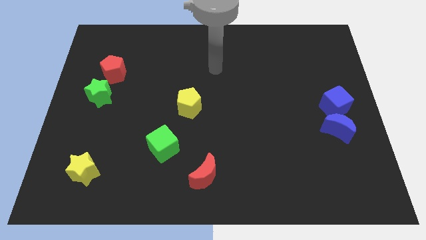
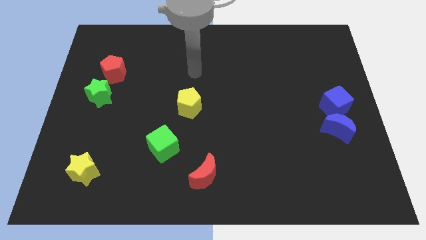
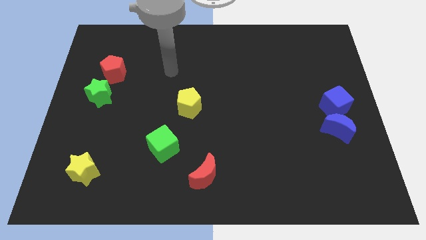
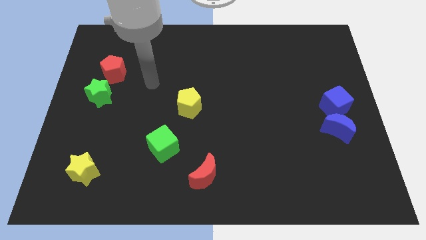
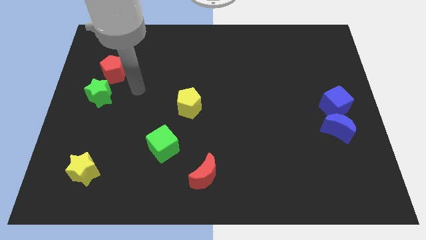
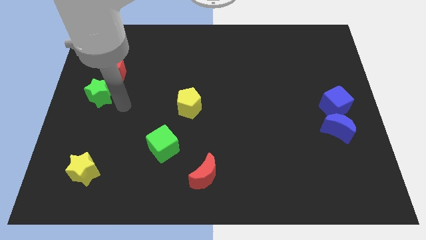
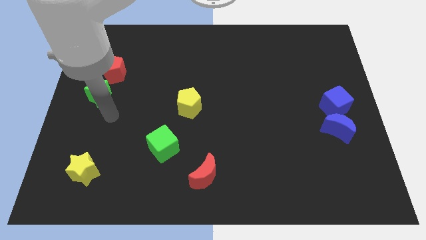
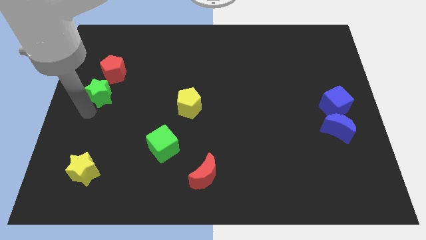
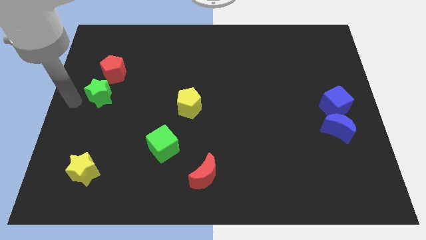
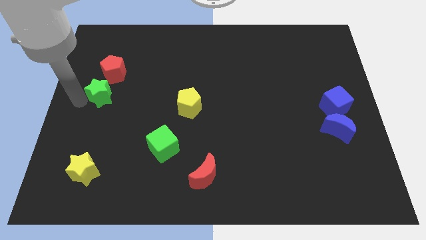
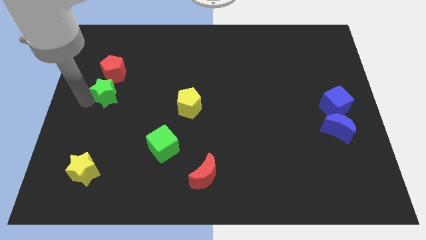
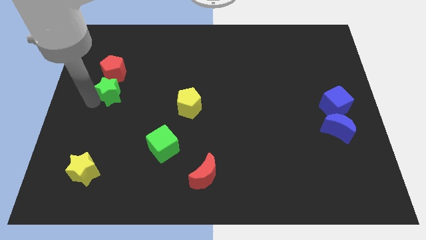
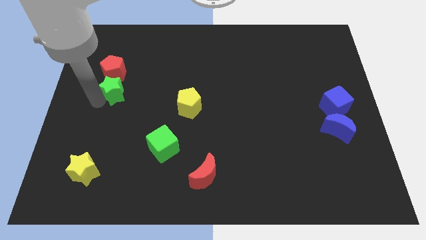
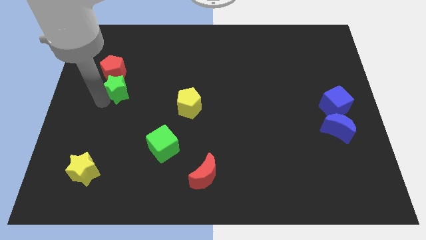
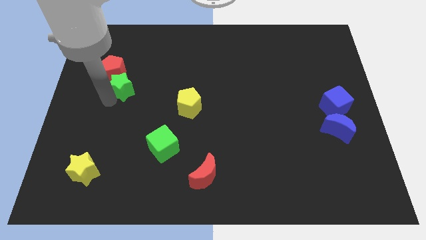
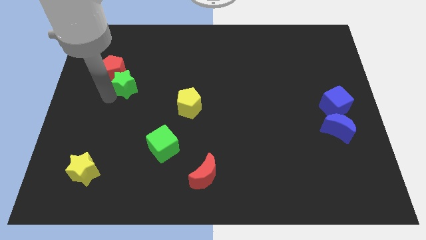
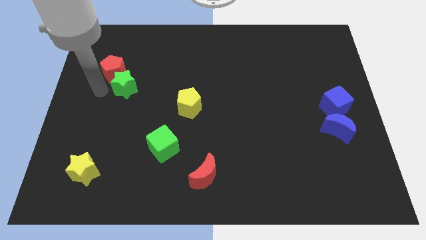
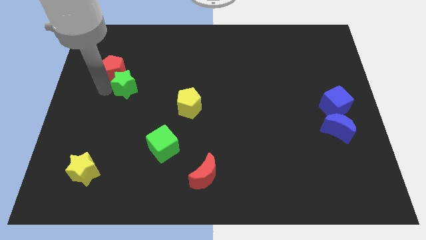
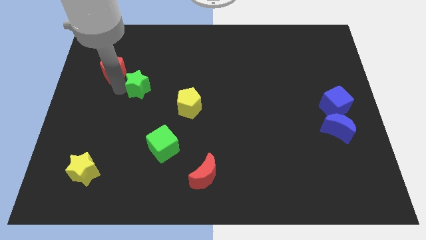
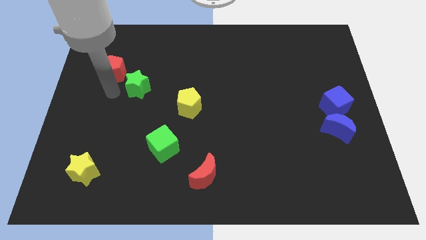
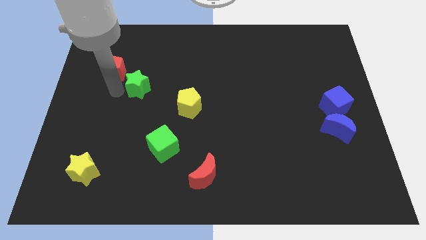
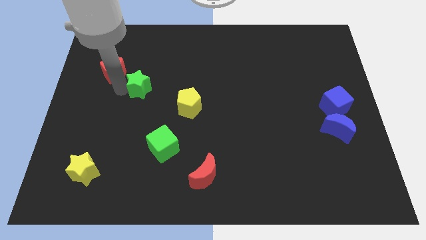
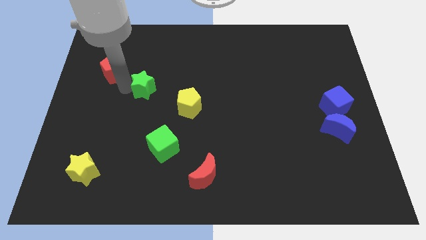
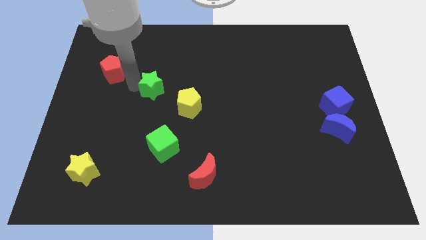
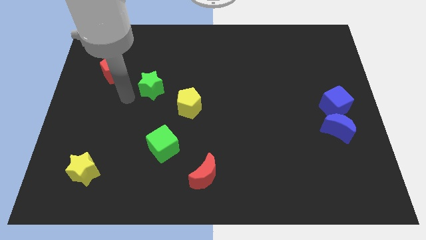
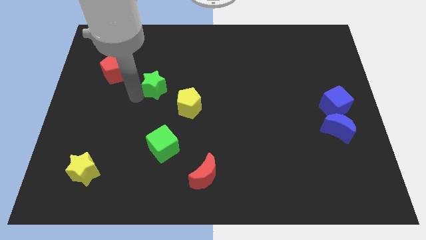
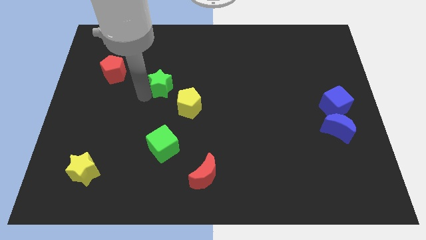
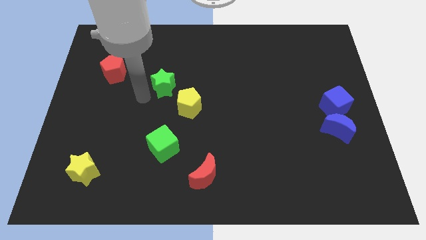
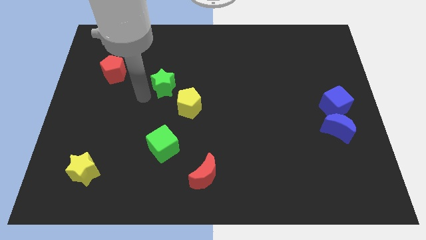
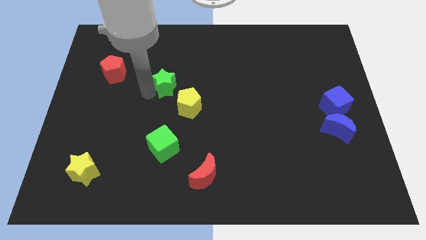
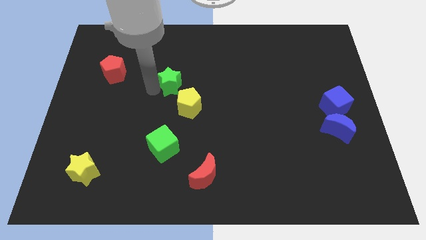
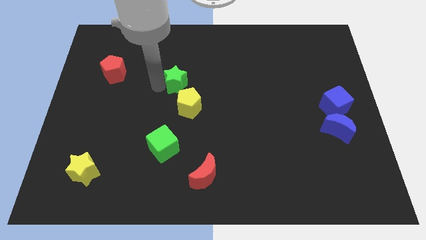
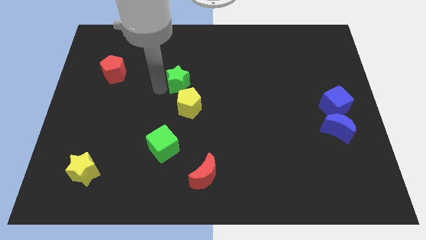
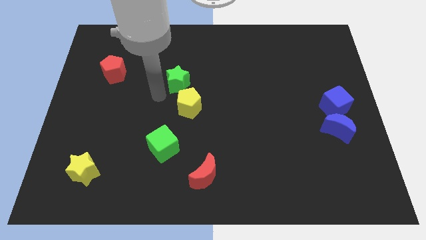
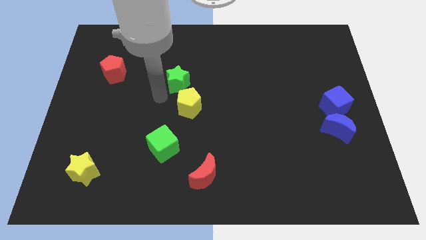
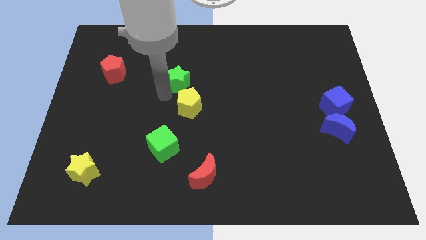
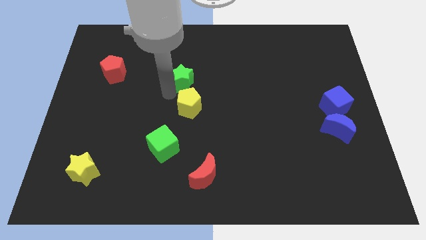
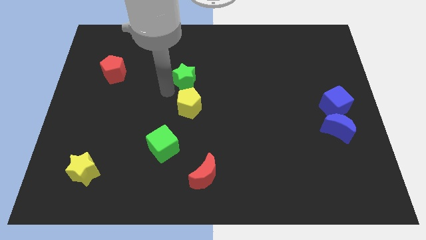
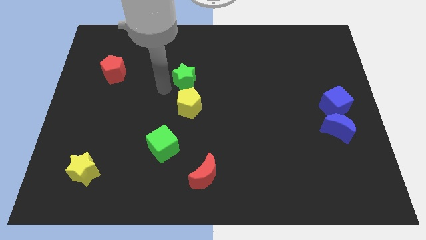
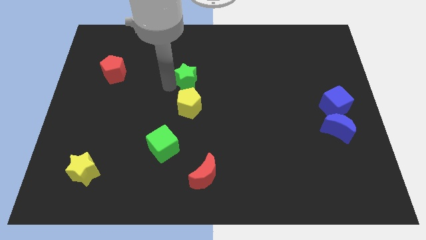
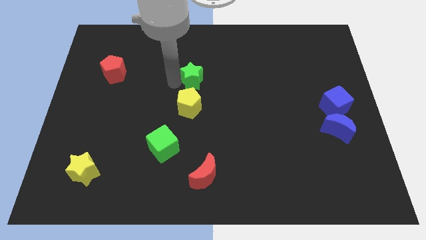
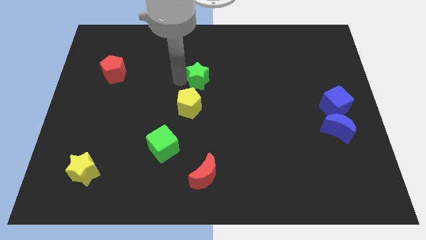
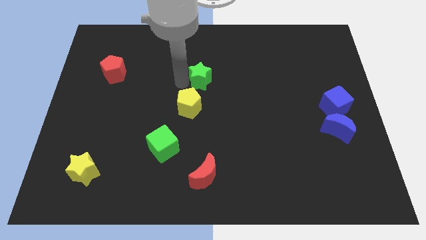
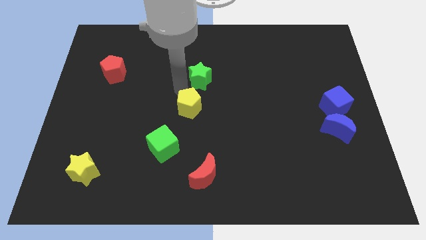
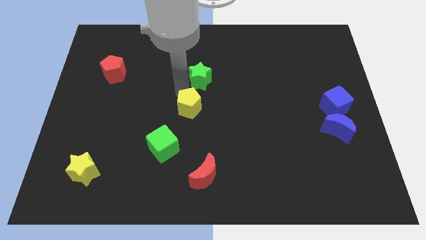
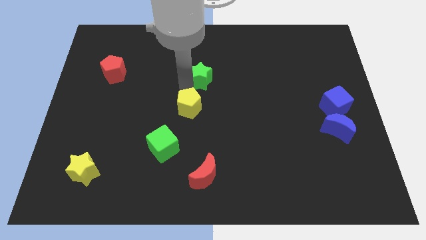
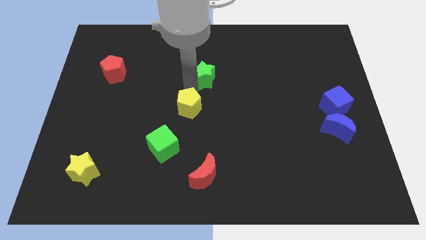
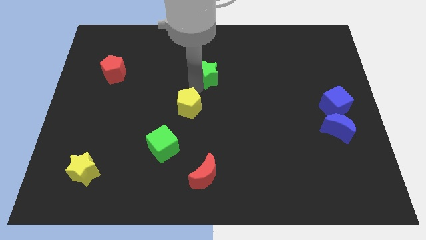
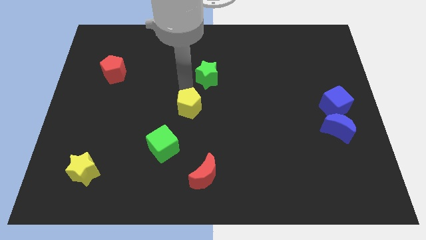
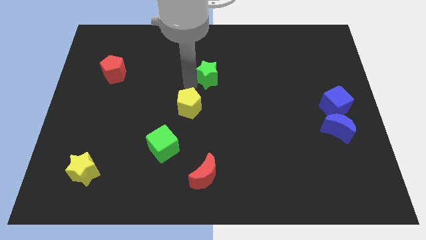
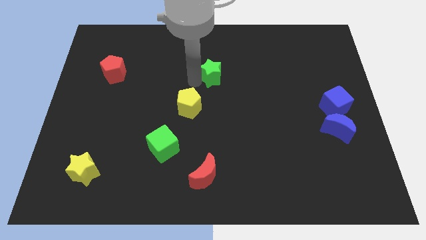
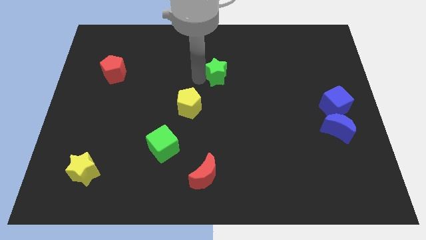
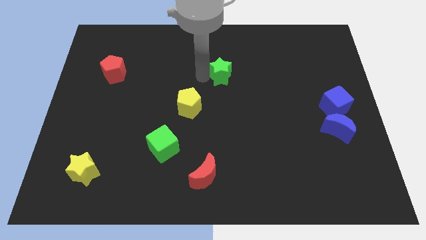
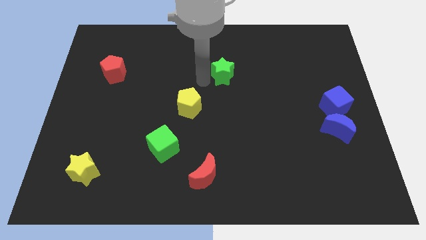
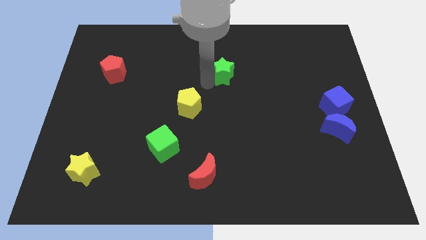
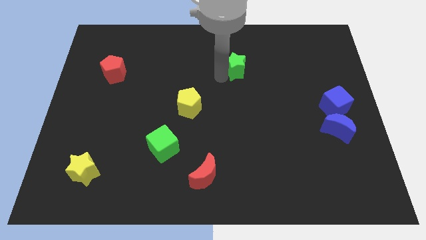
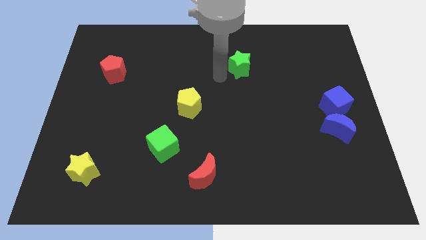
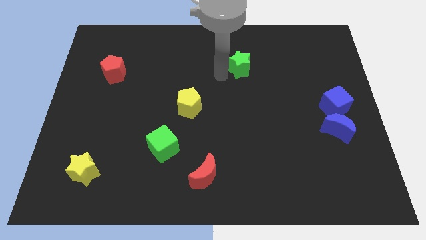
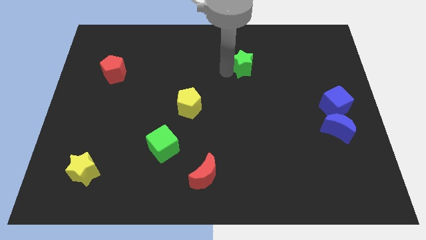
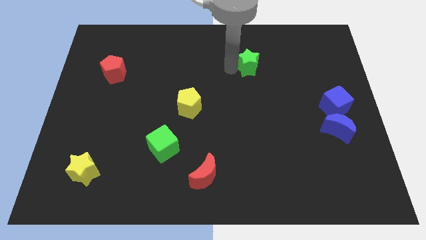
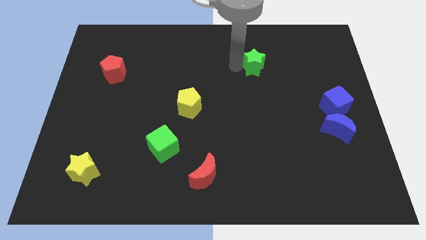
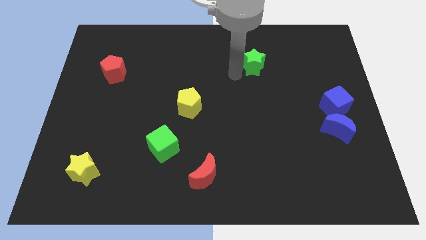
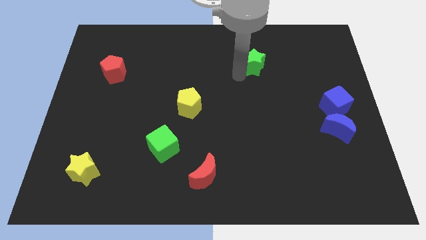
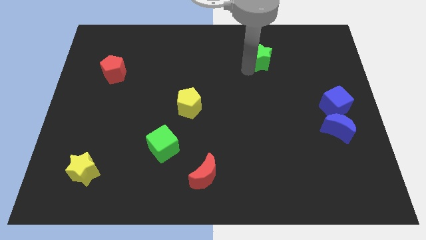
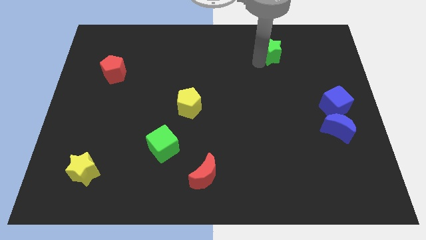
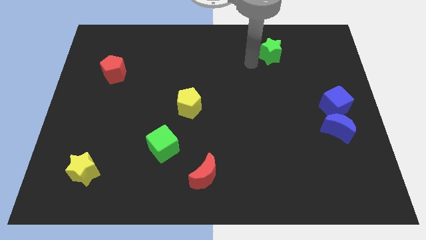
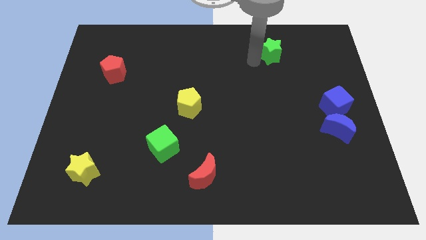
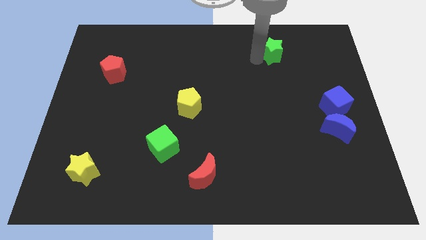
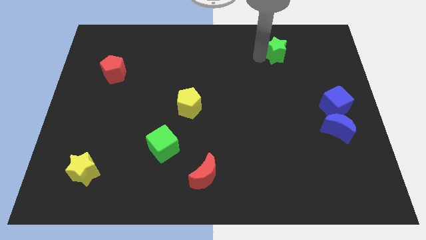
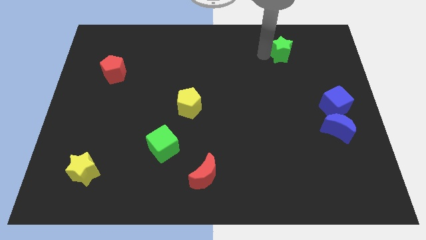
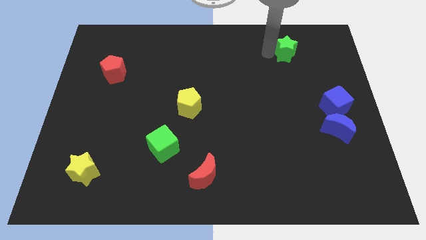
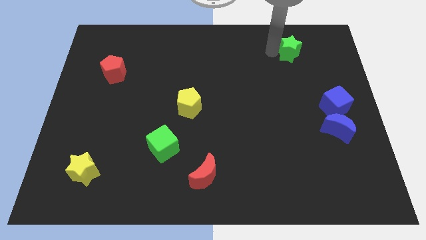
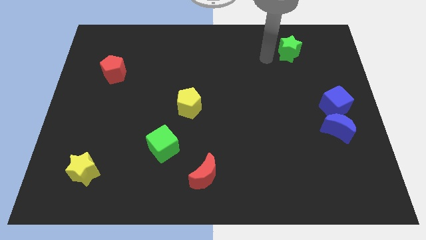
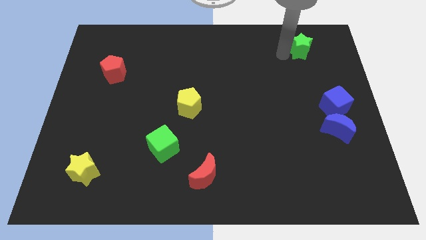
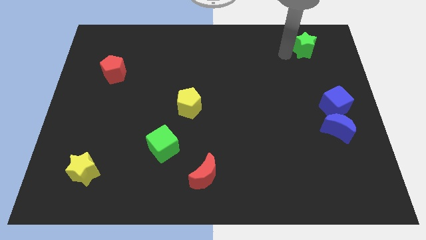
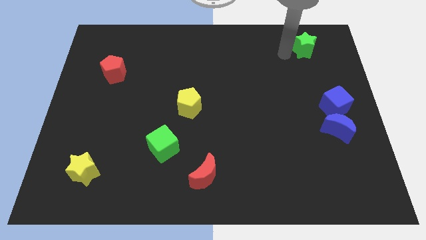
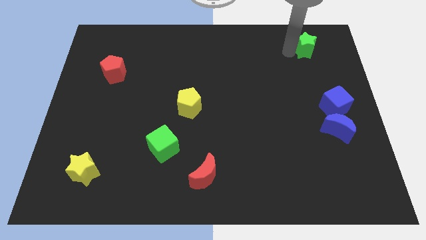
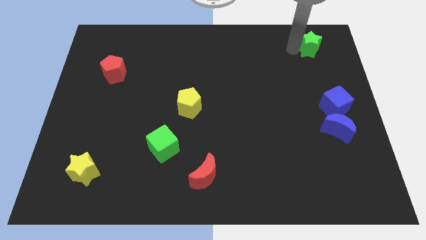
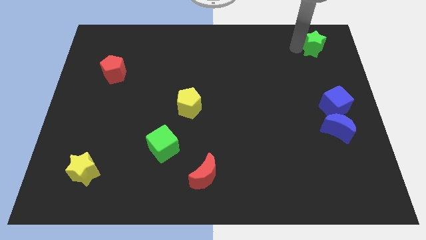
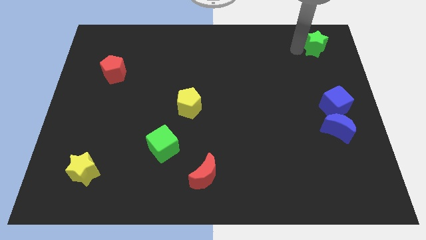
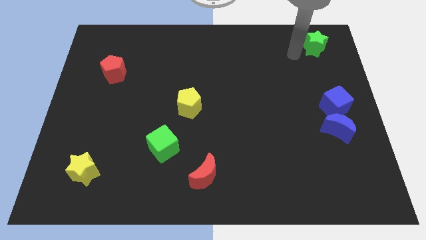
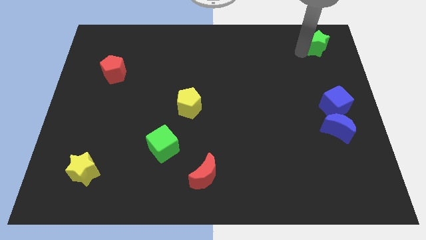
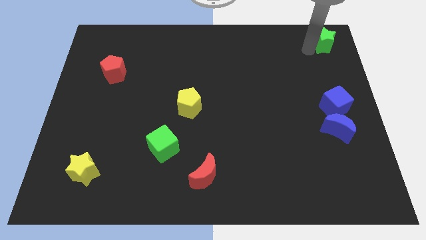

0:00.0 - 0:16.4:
move the green star to the top right of the board
